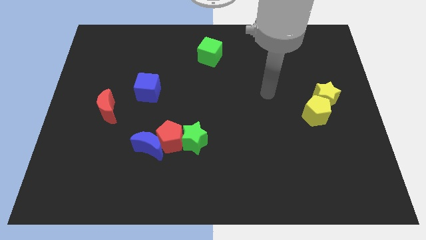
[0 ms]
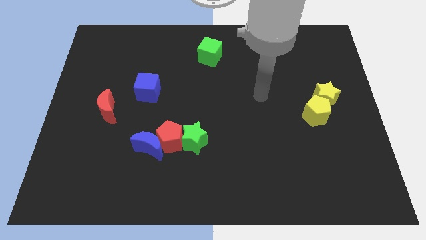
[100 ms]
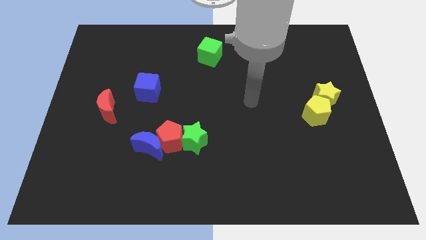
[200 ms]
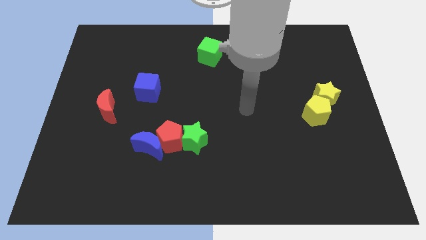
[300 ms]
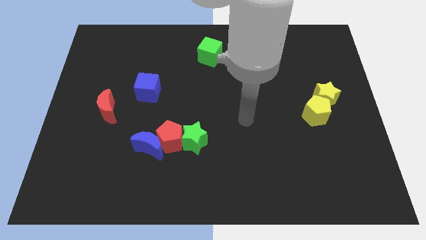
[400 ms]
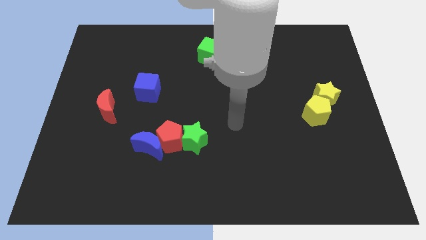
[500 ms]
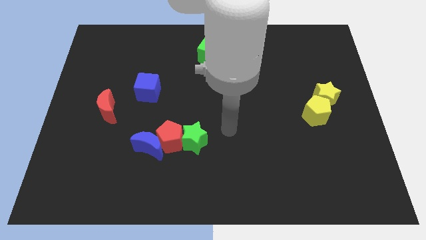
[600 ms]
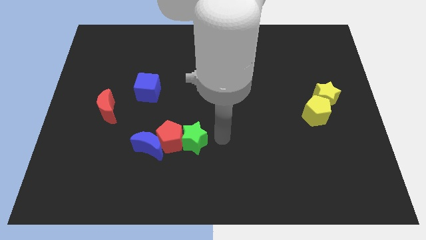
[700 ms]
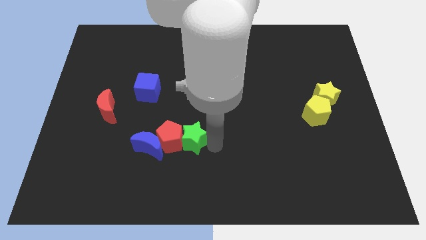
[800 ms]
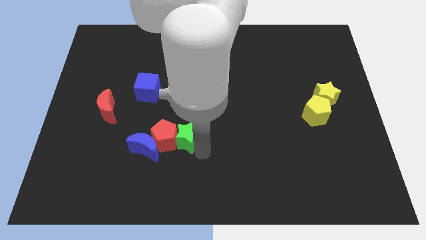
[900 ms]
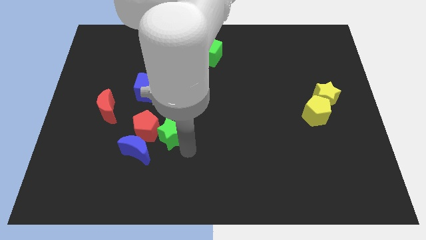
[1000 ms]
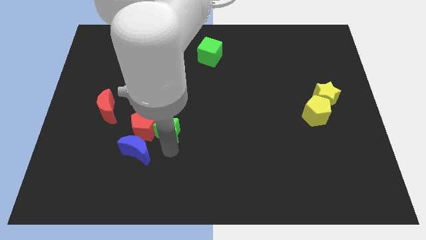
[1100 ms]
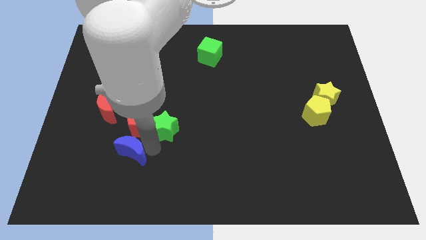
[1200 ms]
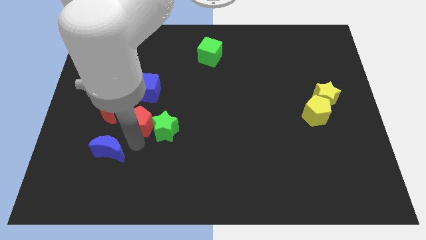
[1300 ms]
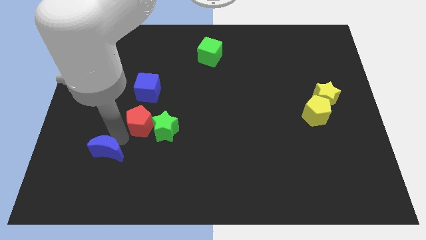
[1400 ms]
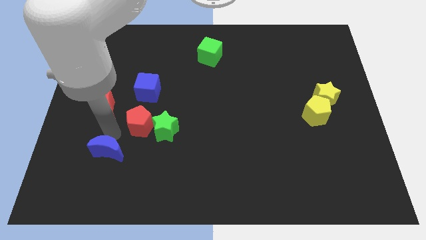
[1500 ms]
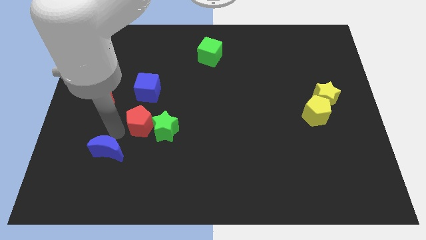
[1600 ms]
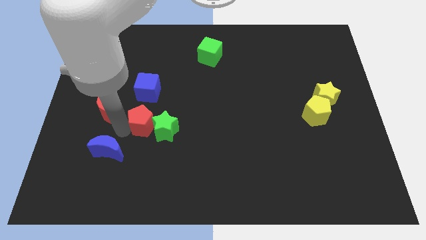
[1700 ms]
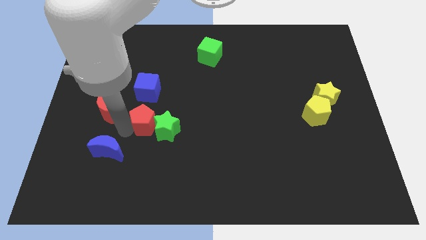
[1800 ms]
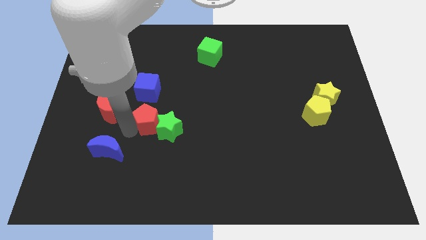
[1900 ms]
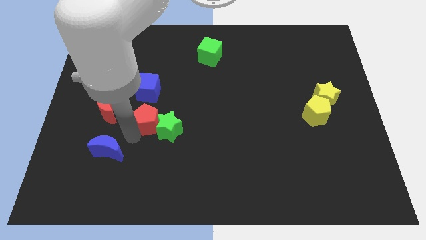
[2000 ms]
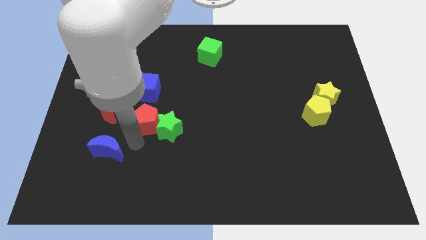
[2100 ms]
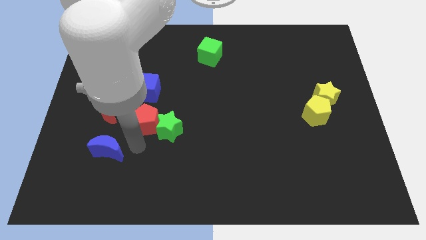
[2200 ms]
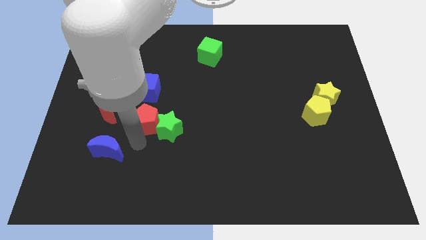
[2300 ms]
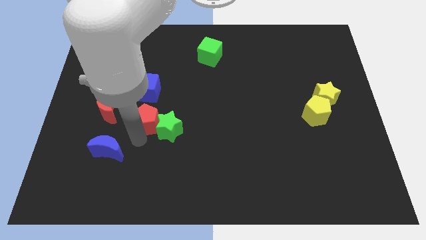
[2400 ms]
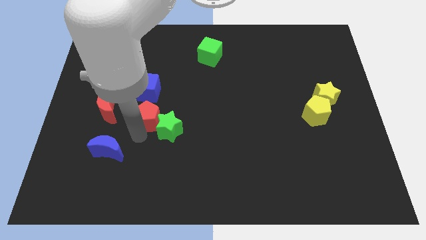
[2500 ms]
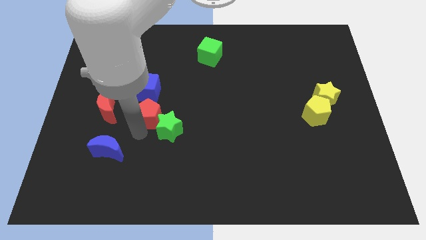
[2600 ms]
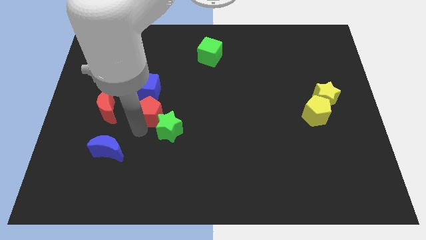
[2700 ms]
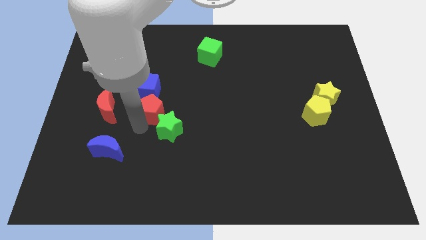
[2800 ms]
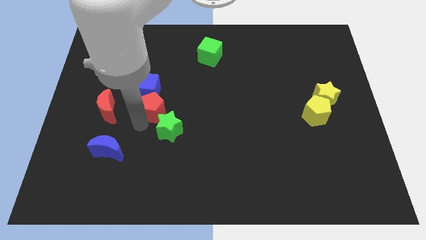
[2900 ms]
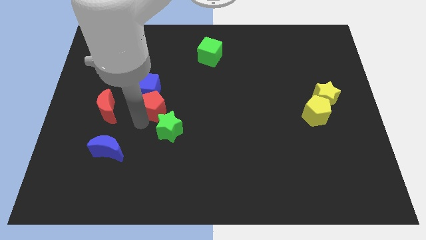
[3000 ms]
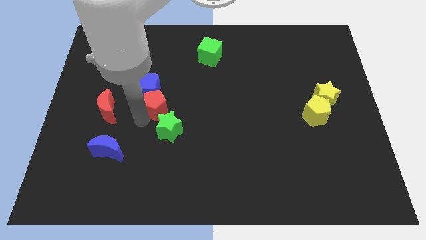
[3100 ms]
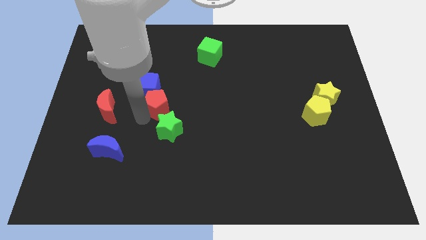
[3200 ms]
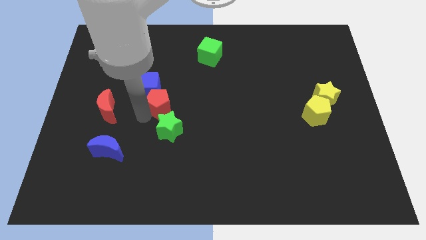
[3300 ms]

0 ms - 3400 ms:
separate the red pentagon from the blue moon and green star

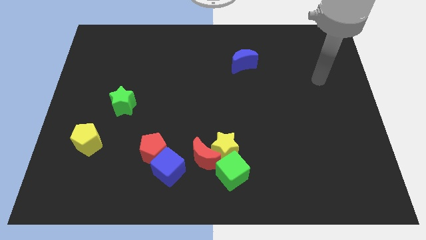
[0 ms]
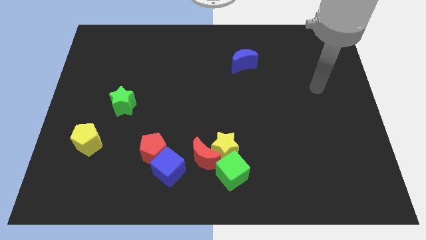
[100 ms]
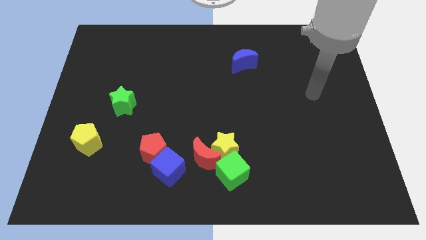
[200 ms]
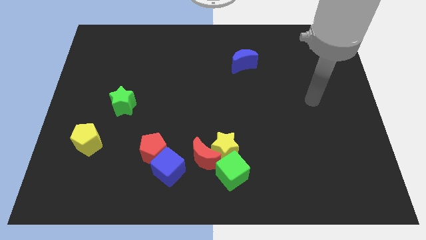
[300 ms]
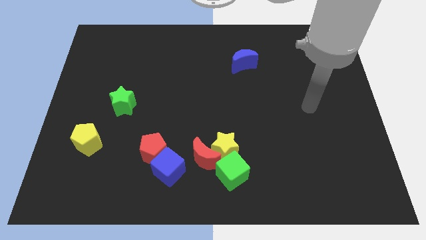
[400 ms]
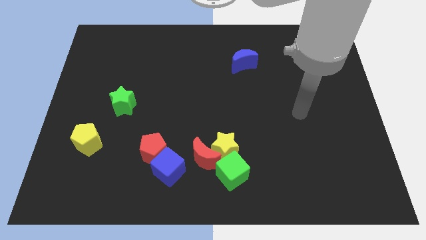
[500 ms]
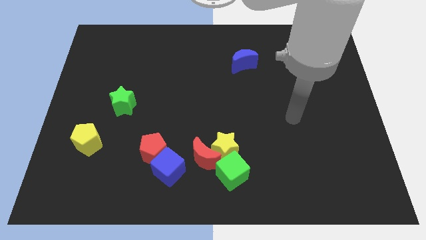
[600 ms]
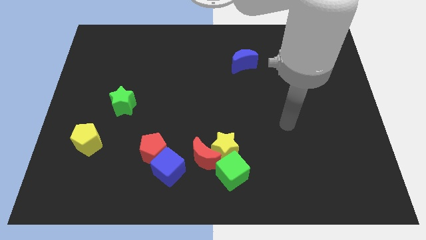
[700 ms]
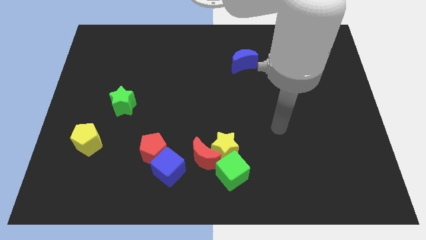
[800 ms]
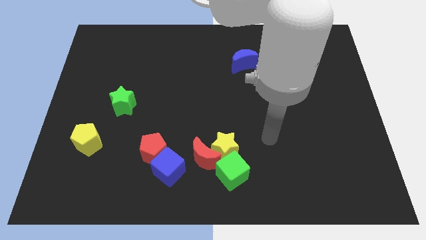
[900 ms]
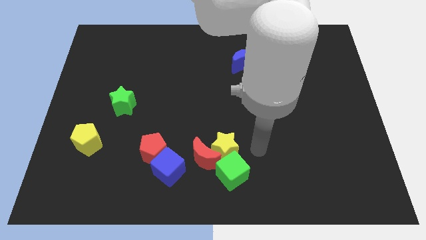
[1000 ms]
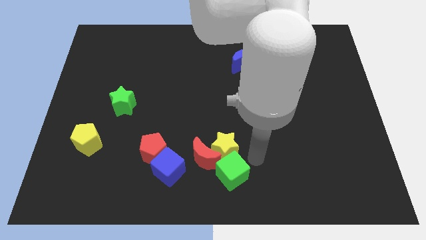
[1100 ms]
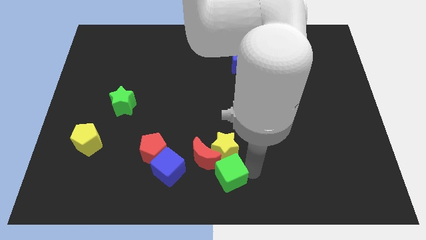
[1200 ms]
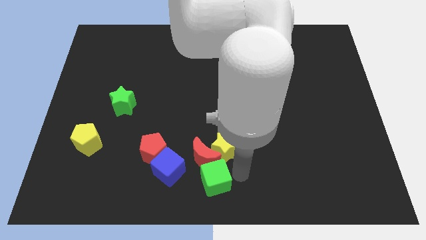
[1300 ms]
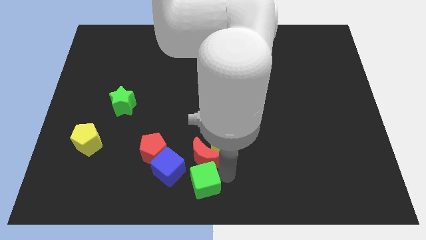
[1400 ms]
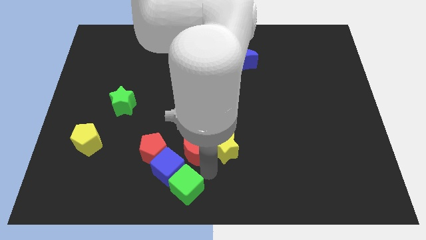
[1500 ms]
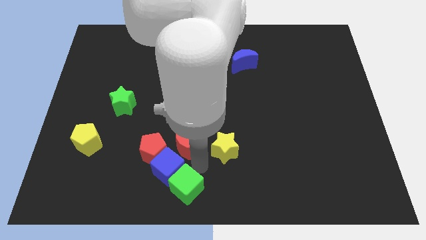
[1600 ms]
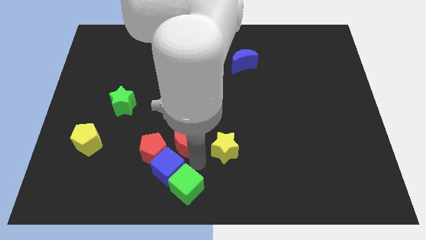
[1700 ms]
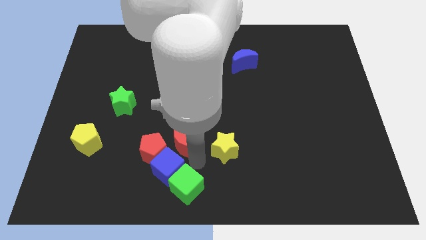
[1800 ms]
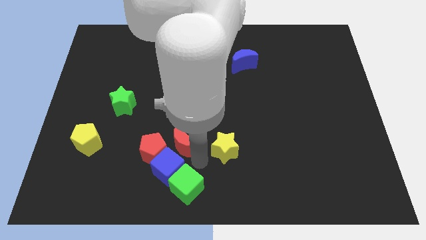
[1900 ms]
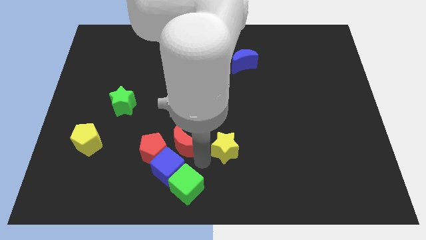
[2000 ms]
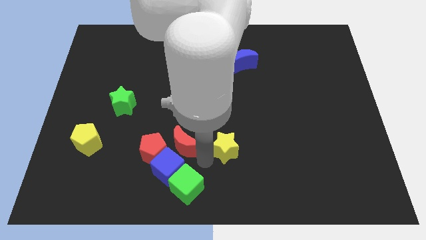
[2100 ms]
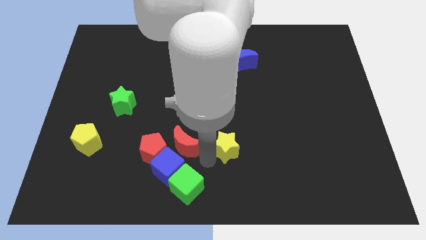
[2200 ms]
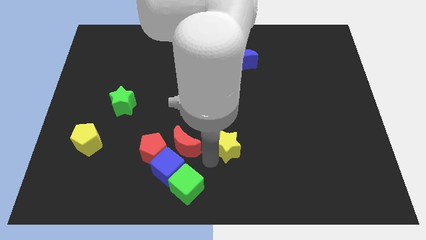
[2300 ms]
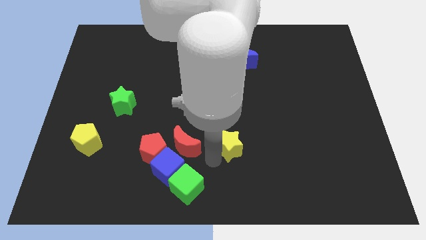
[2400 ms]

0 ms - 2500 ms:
separate the yellow star from the red moon and green cube

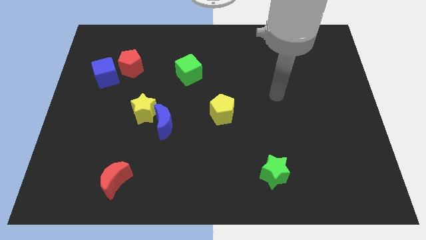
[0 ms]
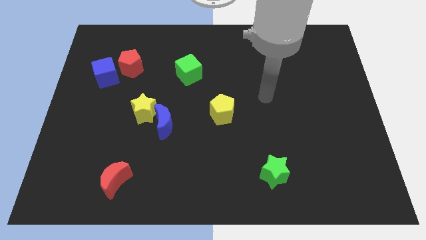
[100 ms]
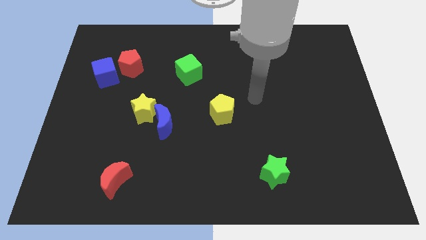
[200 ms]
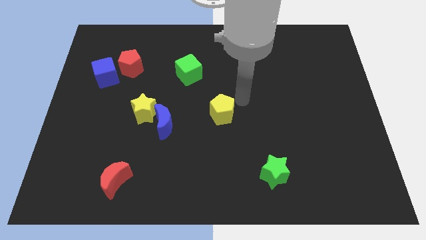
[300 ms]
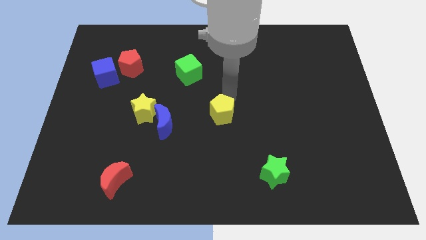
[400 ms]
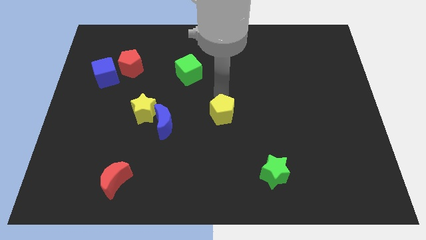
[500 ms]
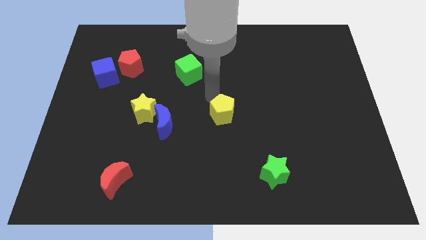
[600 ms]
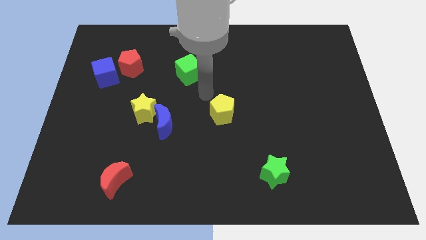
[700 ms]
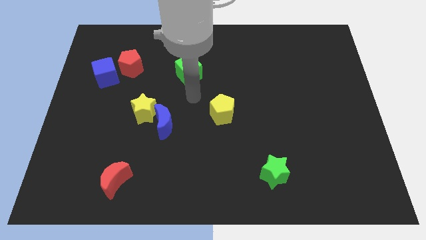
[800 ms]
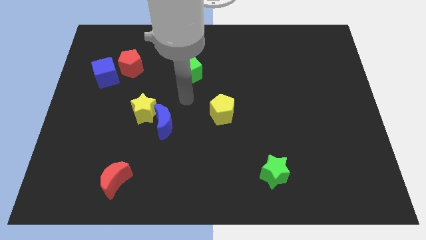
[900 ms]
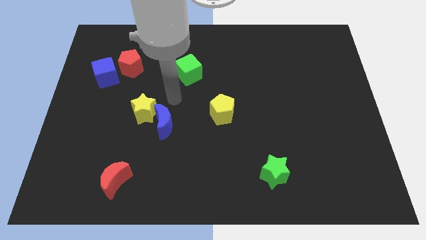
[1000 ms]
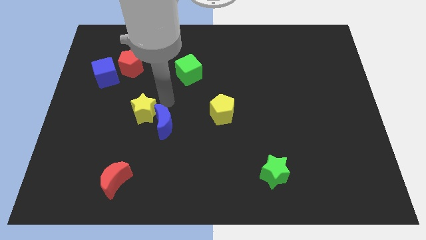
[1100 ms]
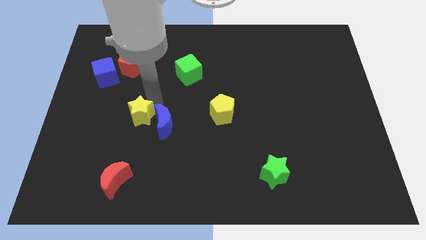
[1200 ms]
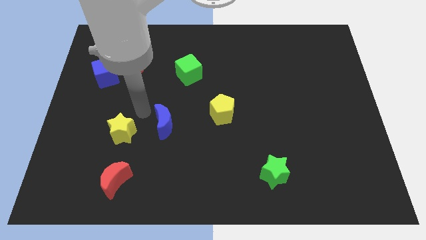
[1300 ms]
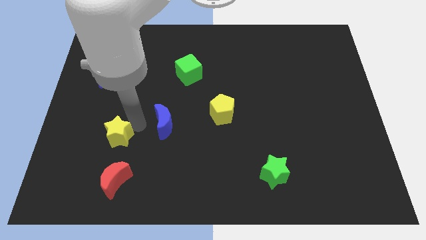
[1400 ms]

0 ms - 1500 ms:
move the blue moon away from the yellow star

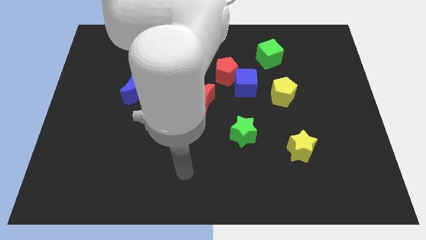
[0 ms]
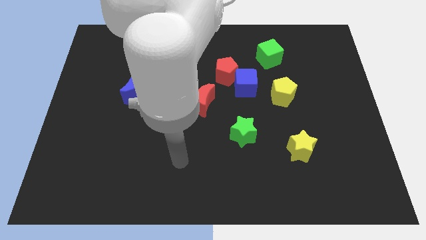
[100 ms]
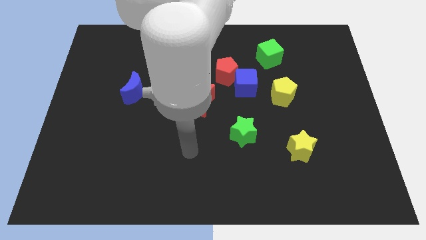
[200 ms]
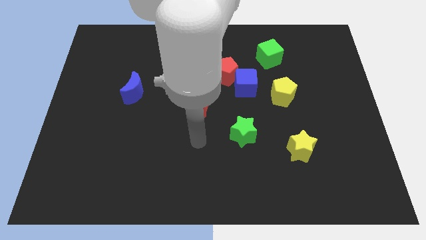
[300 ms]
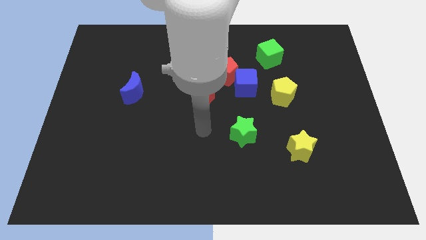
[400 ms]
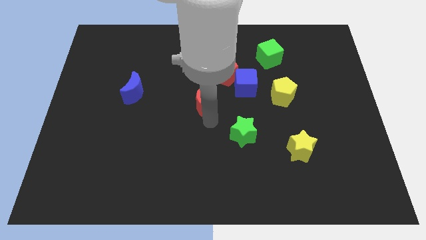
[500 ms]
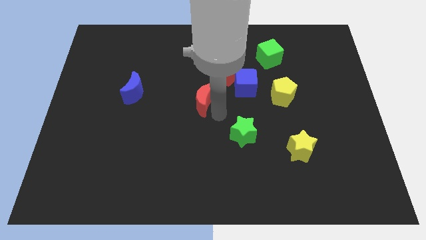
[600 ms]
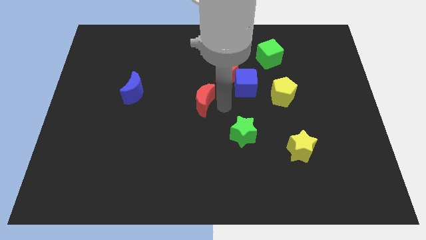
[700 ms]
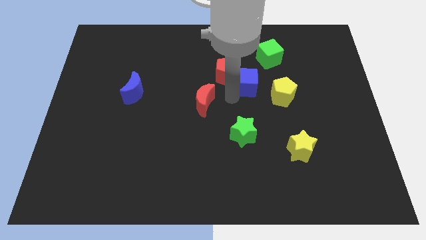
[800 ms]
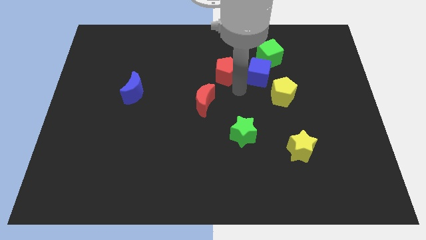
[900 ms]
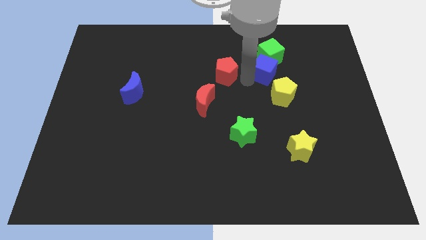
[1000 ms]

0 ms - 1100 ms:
separate the red pentagon from the blue cube

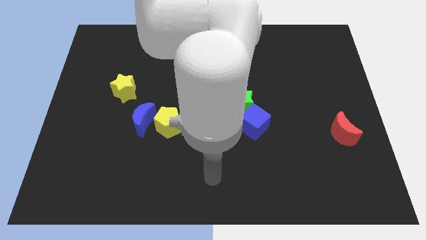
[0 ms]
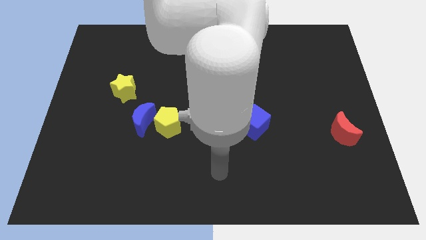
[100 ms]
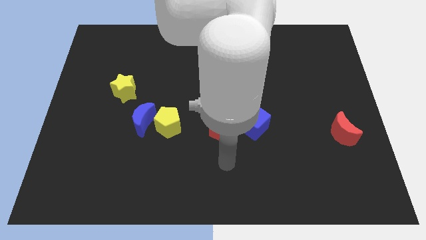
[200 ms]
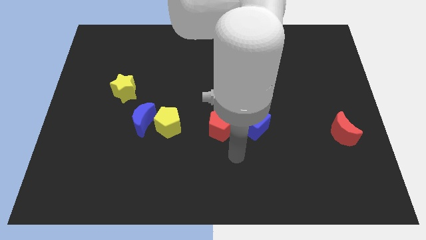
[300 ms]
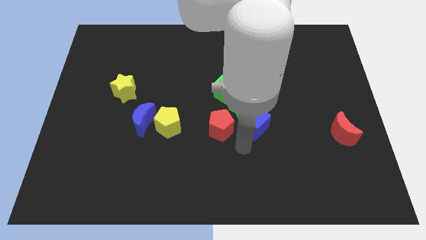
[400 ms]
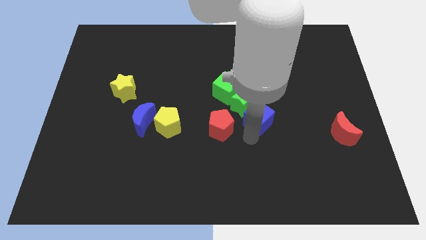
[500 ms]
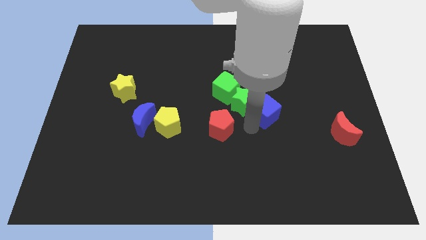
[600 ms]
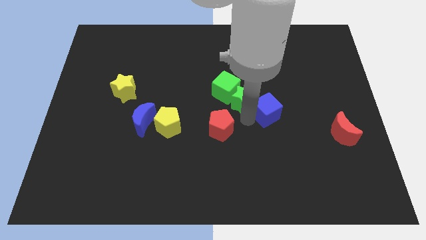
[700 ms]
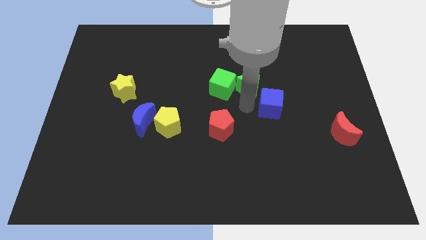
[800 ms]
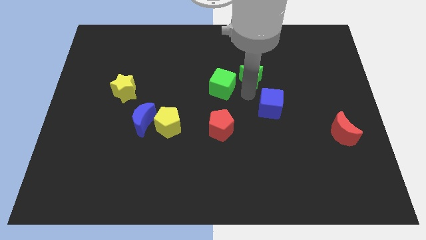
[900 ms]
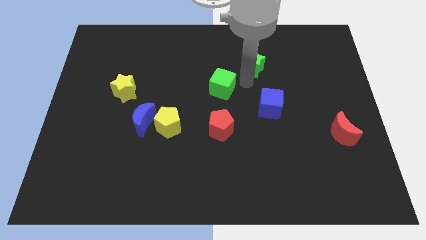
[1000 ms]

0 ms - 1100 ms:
separate the green cube from the green star
